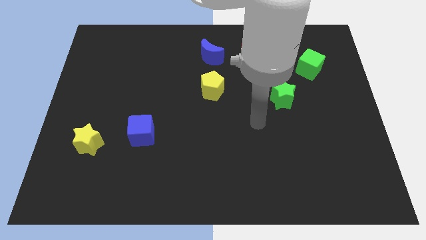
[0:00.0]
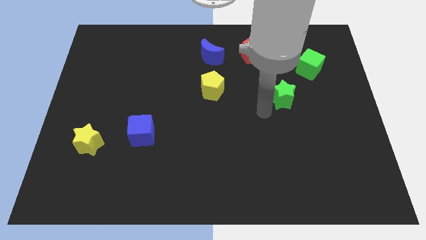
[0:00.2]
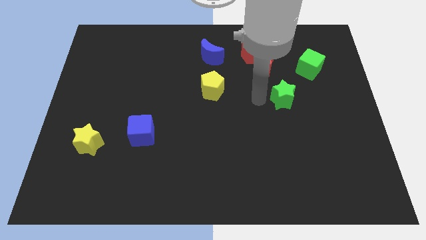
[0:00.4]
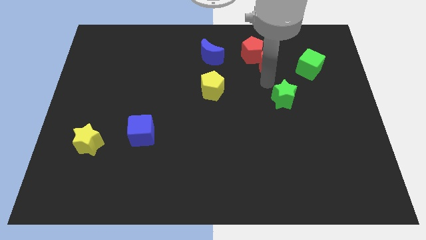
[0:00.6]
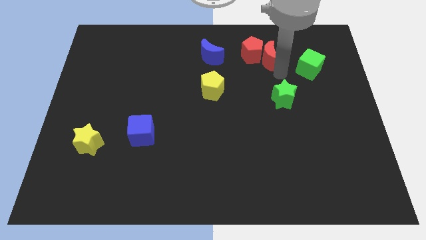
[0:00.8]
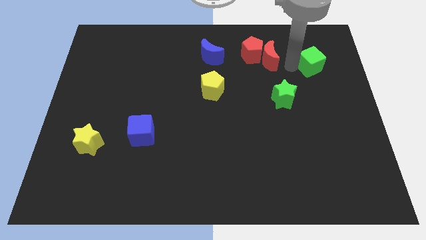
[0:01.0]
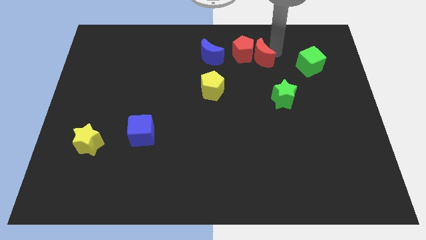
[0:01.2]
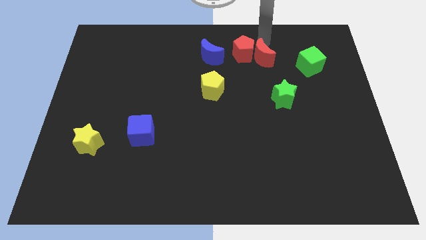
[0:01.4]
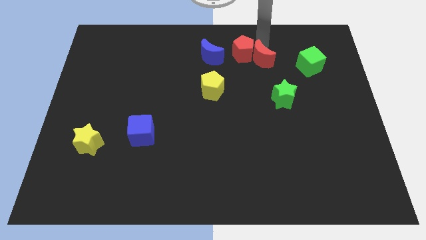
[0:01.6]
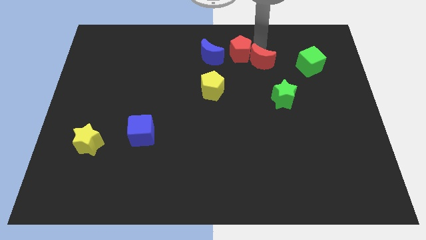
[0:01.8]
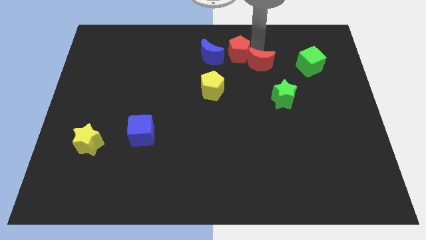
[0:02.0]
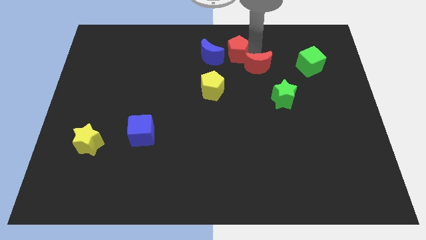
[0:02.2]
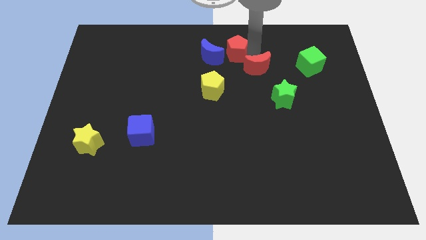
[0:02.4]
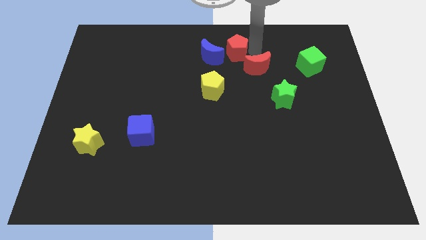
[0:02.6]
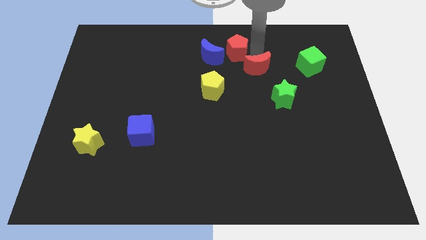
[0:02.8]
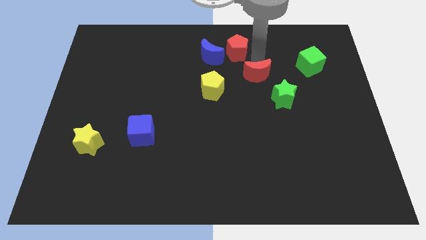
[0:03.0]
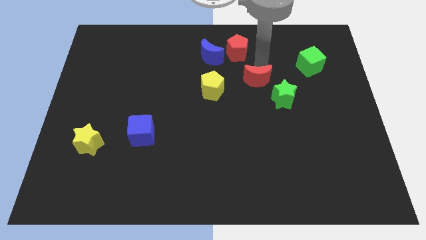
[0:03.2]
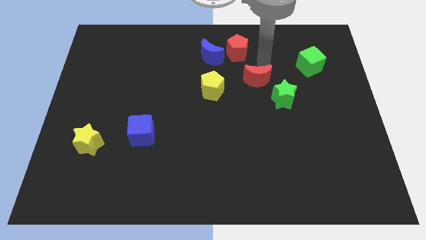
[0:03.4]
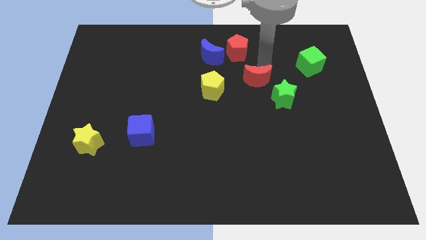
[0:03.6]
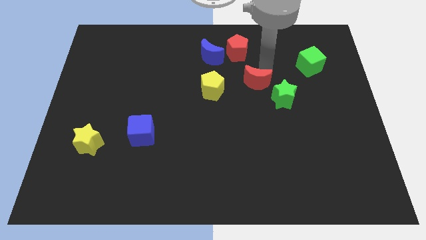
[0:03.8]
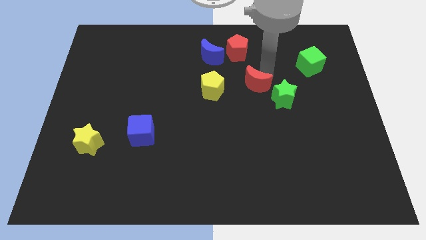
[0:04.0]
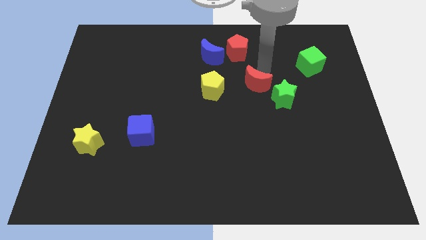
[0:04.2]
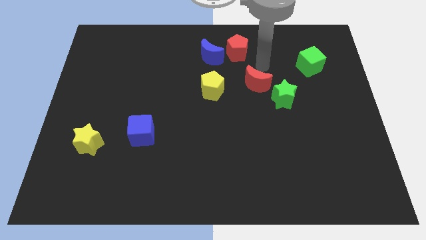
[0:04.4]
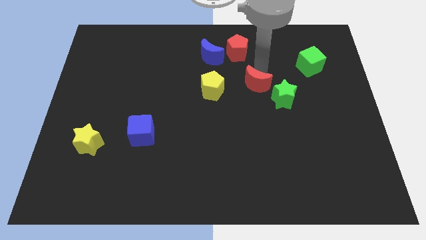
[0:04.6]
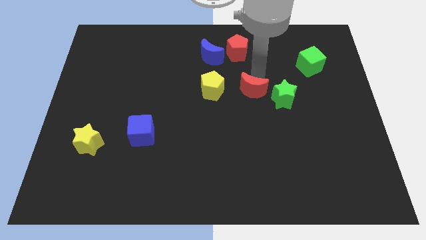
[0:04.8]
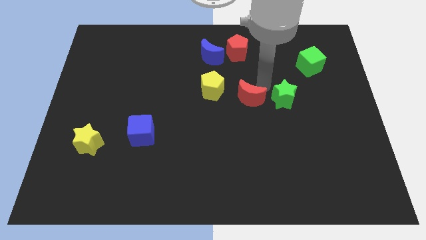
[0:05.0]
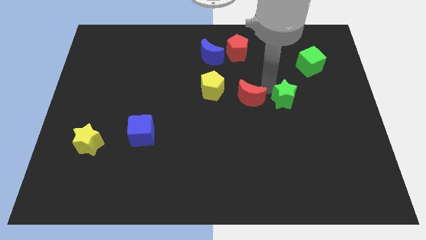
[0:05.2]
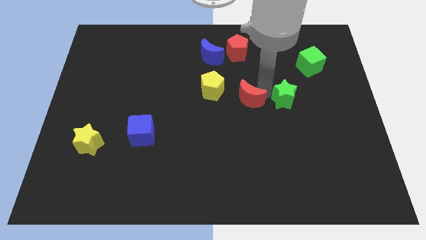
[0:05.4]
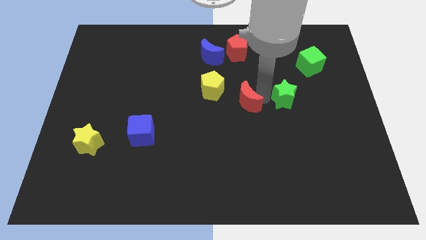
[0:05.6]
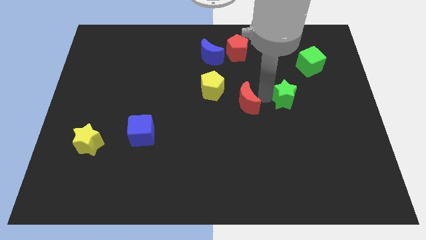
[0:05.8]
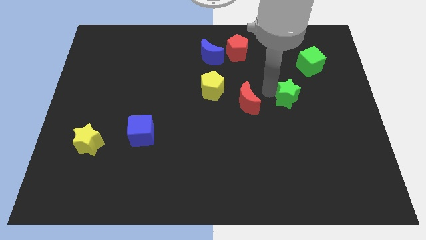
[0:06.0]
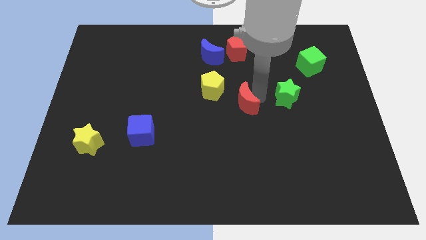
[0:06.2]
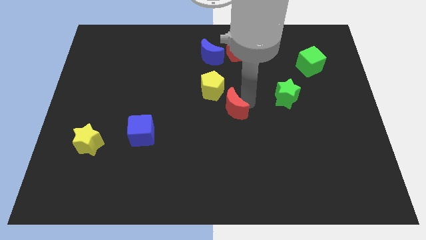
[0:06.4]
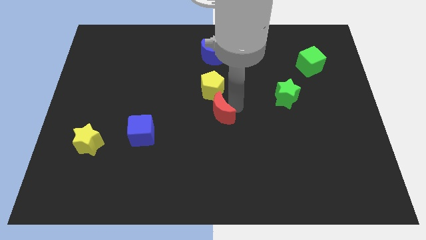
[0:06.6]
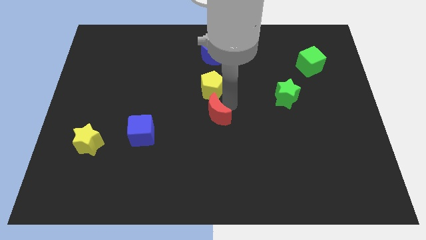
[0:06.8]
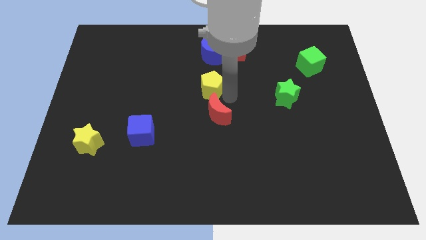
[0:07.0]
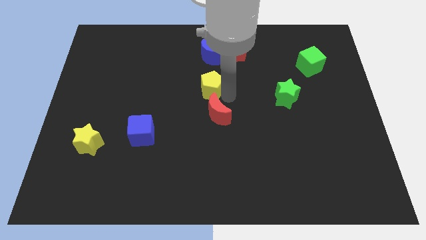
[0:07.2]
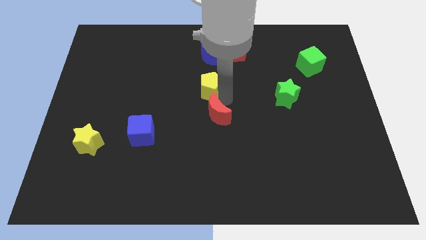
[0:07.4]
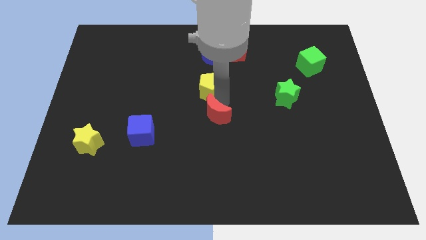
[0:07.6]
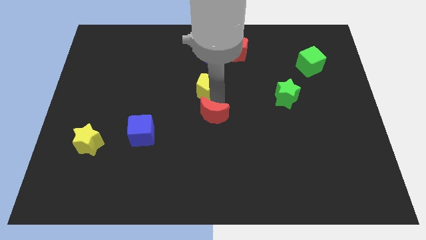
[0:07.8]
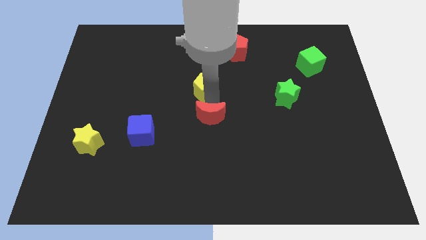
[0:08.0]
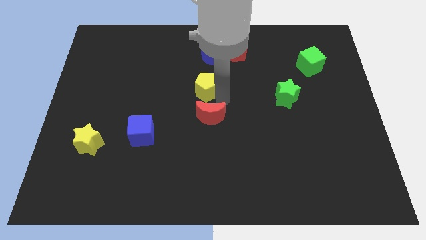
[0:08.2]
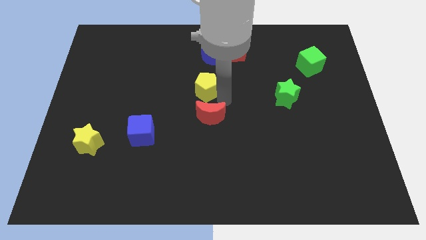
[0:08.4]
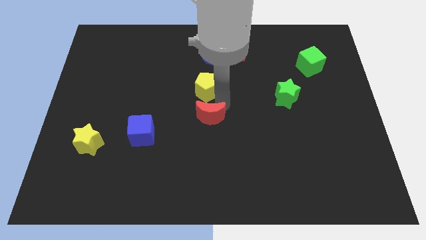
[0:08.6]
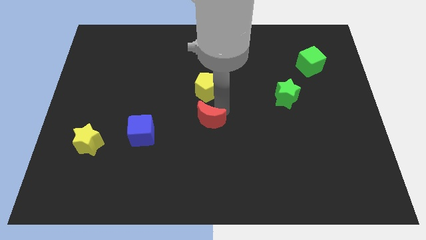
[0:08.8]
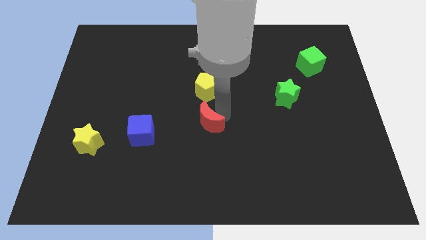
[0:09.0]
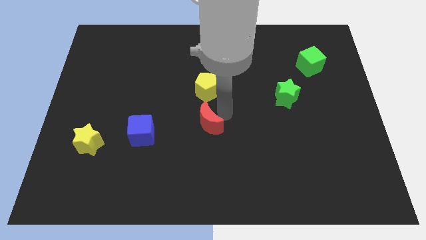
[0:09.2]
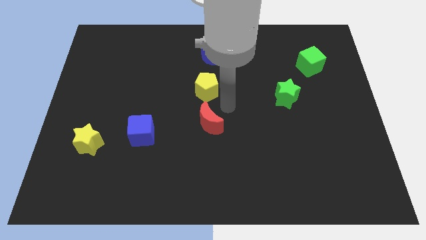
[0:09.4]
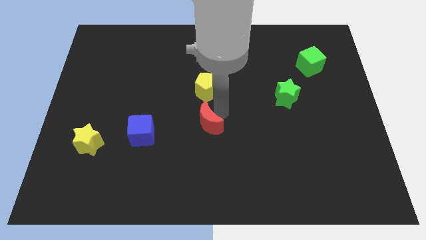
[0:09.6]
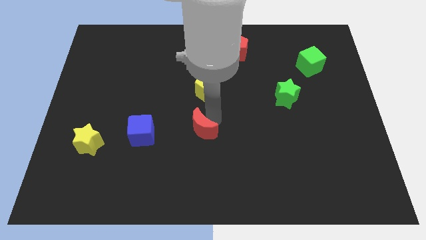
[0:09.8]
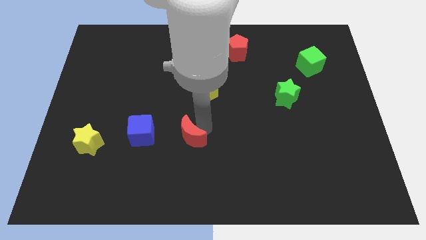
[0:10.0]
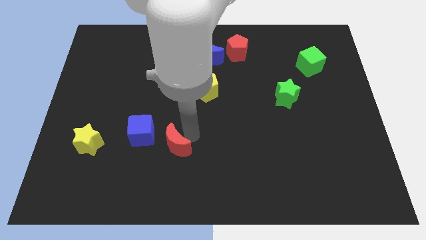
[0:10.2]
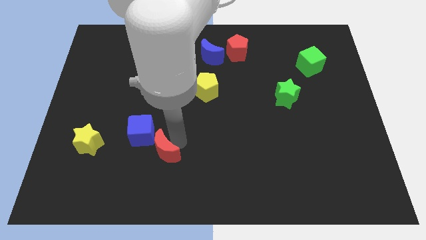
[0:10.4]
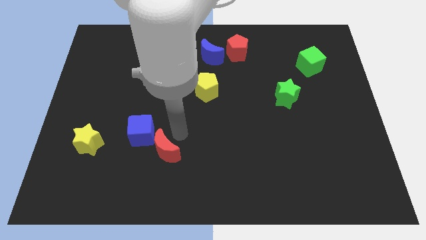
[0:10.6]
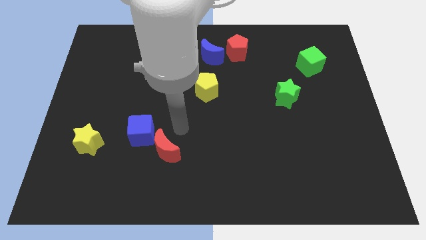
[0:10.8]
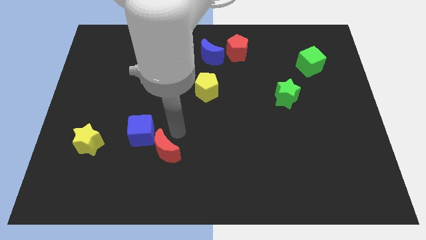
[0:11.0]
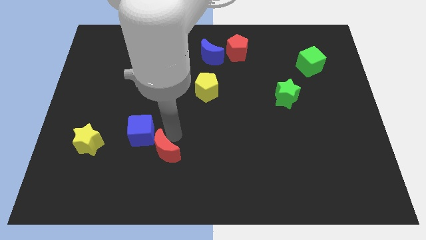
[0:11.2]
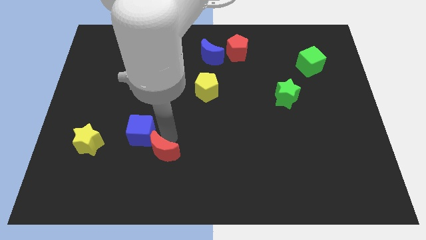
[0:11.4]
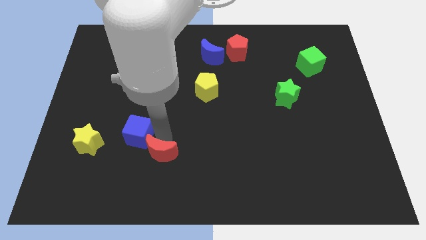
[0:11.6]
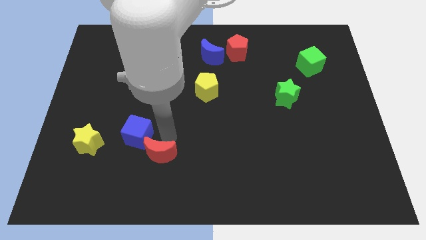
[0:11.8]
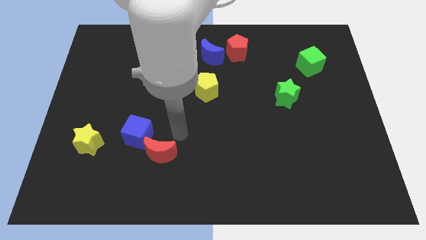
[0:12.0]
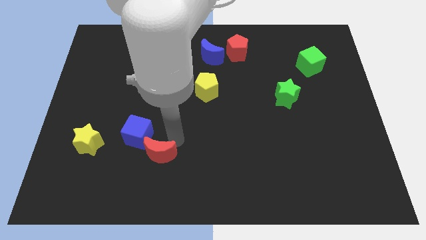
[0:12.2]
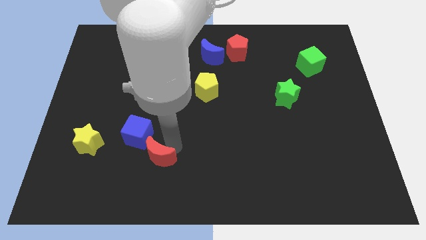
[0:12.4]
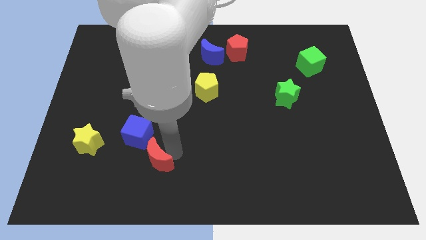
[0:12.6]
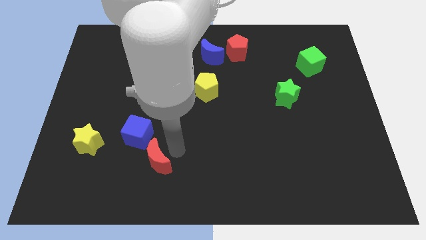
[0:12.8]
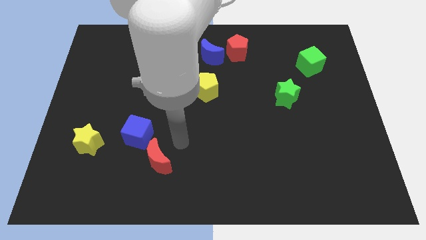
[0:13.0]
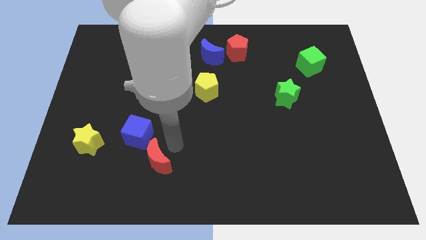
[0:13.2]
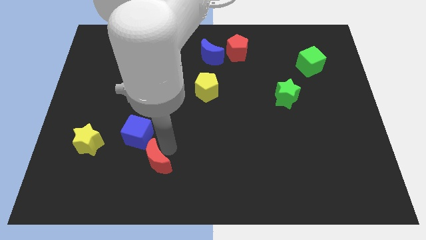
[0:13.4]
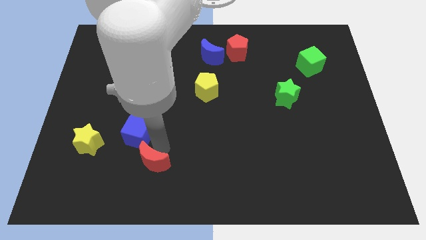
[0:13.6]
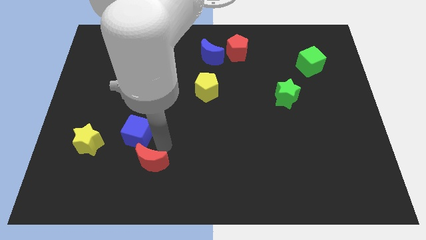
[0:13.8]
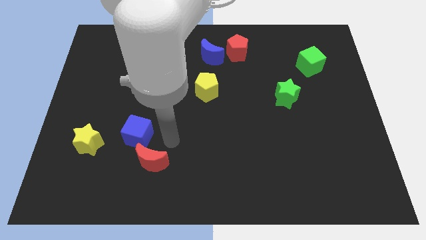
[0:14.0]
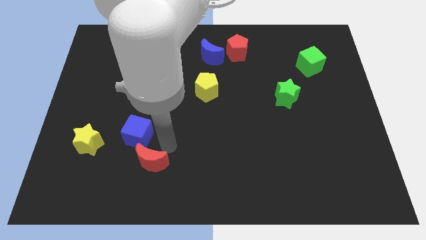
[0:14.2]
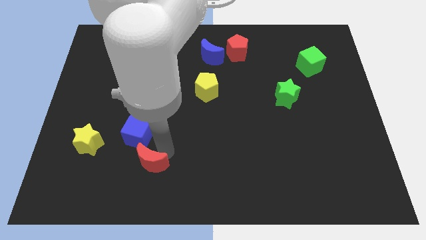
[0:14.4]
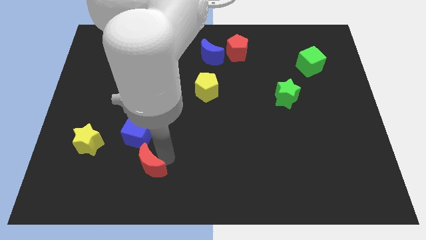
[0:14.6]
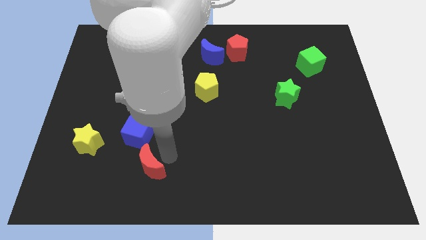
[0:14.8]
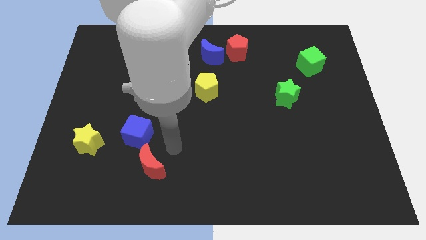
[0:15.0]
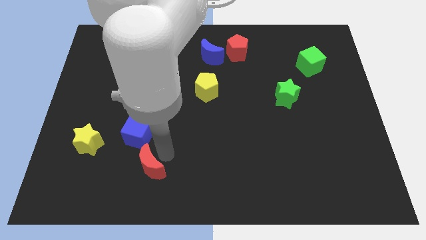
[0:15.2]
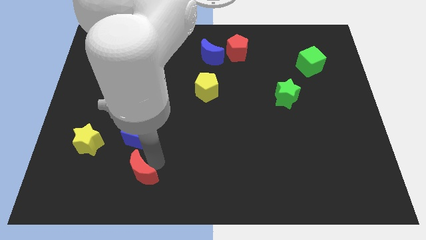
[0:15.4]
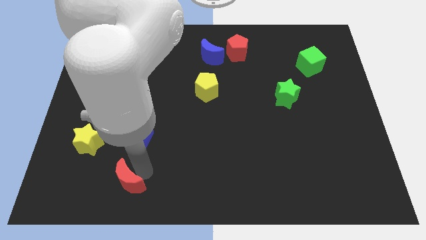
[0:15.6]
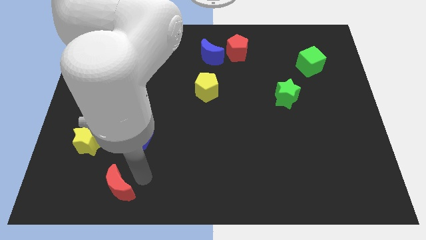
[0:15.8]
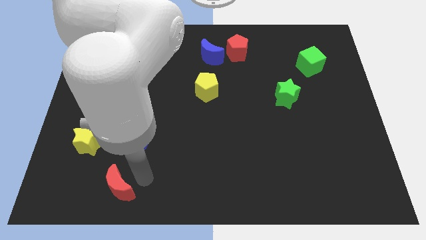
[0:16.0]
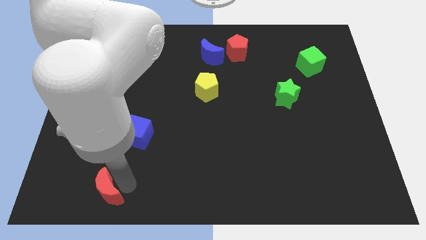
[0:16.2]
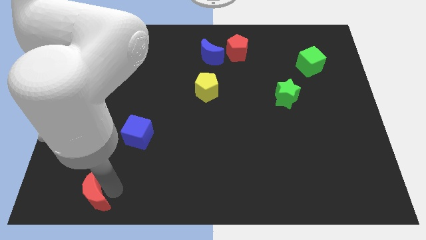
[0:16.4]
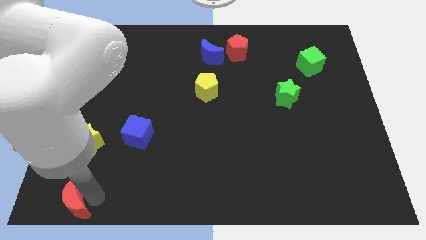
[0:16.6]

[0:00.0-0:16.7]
put the red moon to the bottom left of the board
